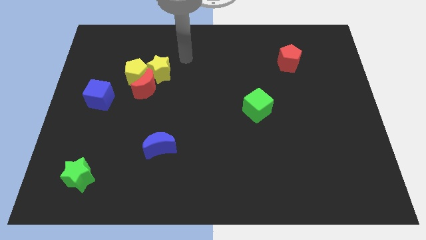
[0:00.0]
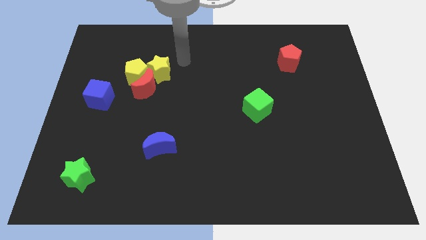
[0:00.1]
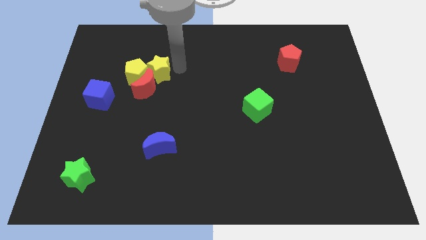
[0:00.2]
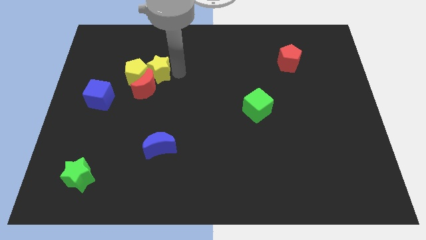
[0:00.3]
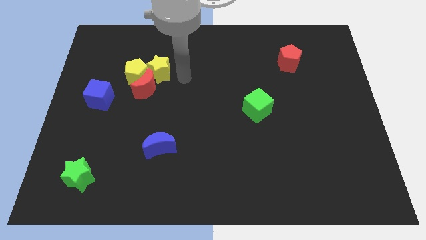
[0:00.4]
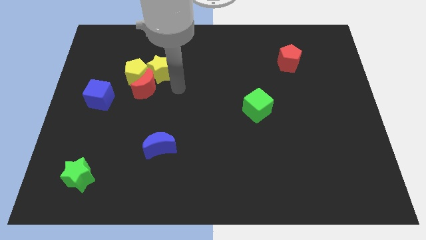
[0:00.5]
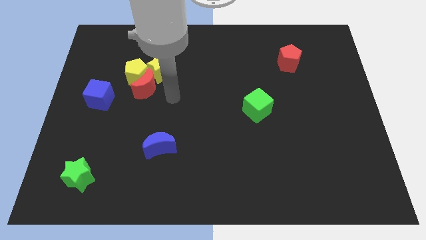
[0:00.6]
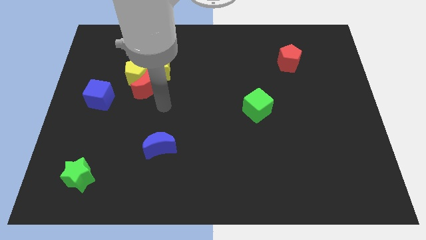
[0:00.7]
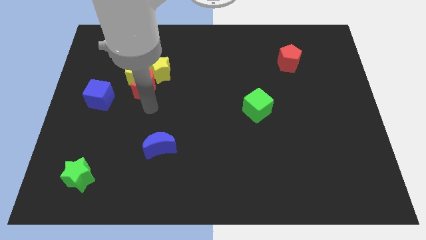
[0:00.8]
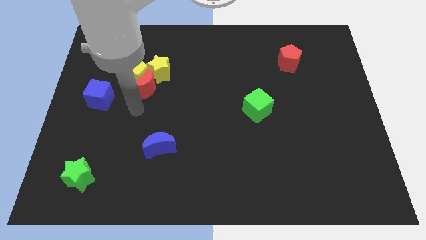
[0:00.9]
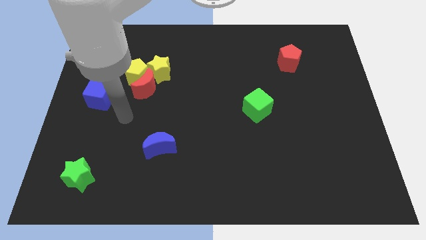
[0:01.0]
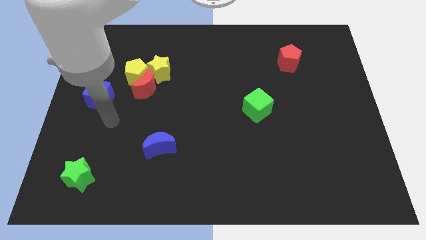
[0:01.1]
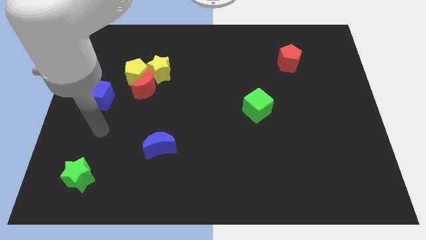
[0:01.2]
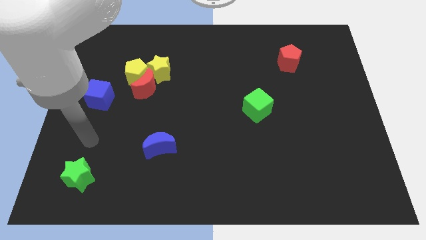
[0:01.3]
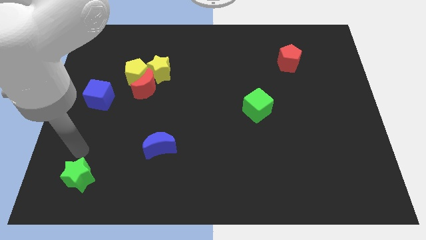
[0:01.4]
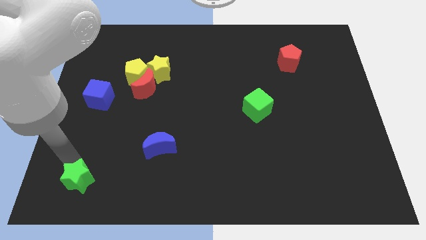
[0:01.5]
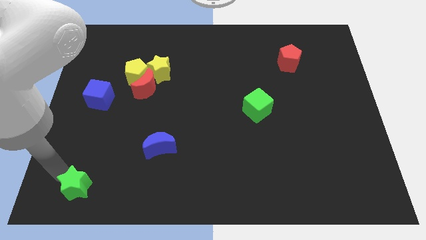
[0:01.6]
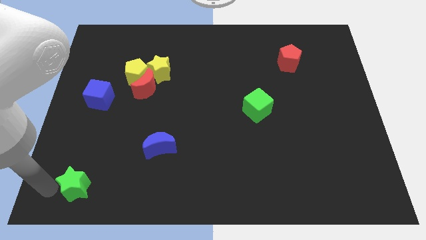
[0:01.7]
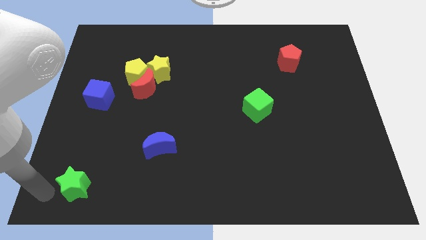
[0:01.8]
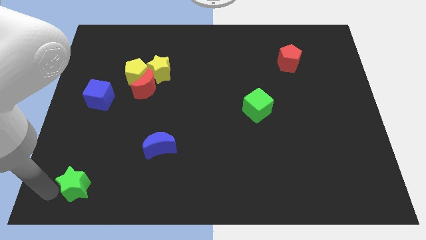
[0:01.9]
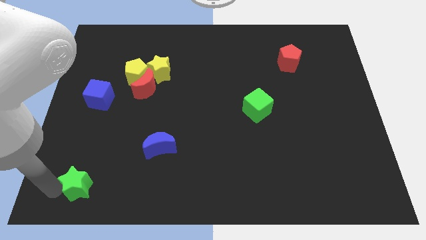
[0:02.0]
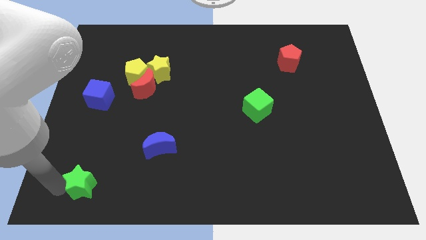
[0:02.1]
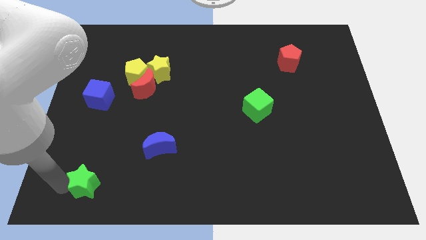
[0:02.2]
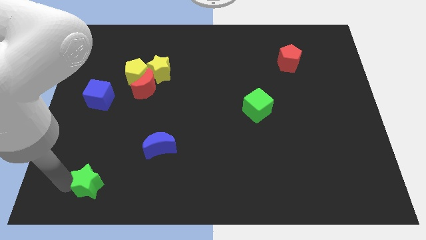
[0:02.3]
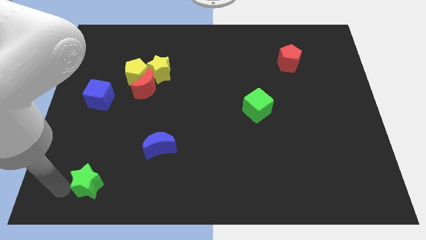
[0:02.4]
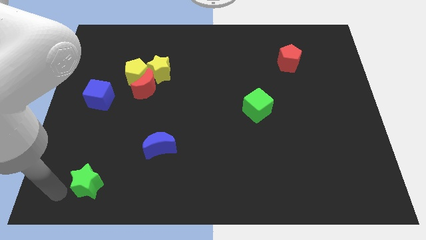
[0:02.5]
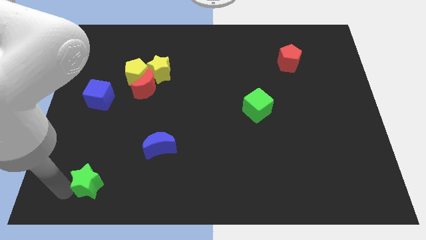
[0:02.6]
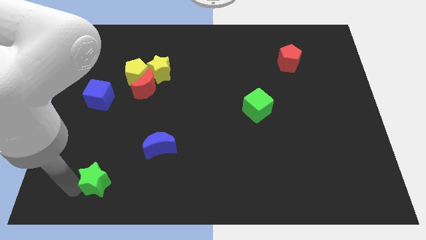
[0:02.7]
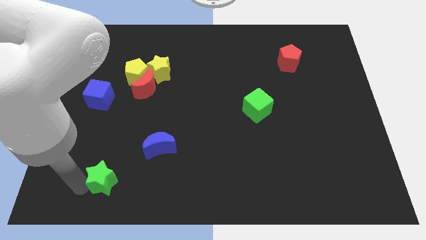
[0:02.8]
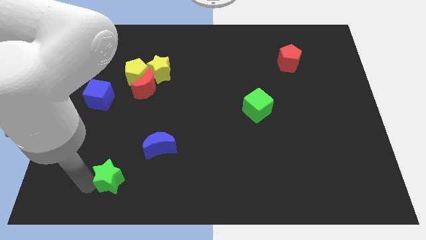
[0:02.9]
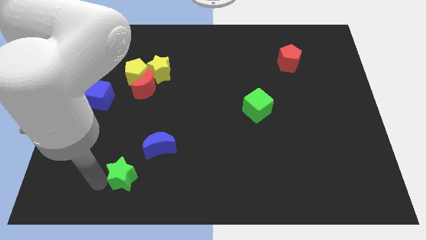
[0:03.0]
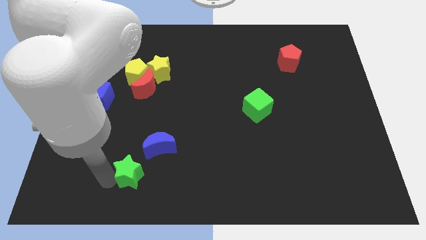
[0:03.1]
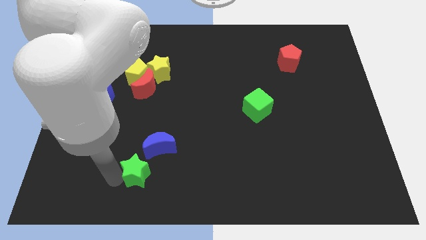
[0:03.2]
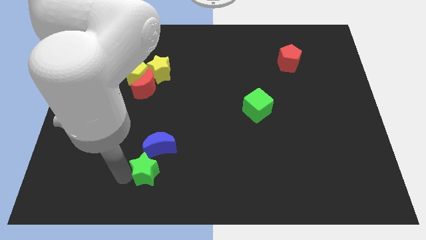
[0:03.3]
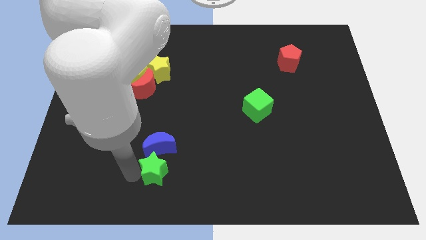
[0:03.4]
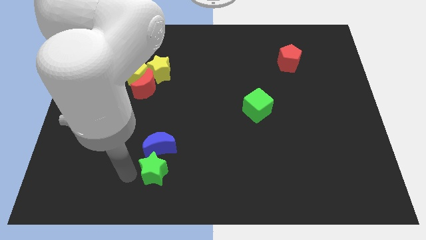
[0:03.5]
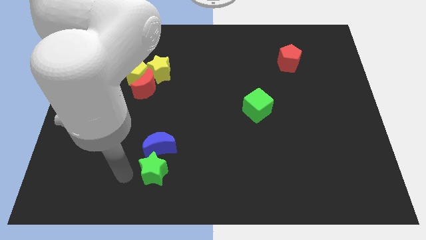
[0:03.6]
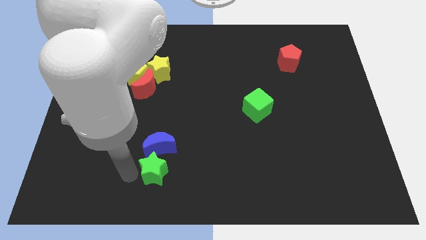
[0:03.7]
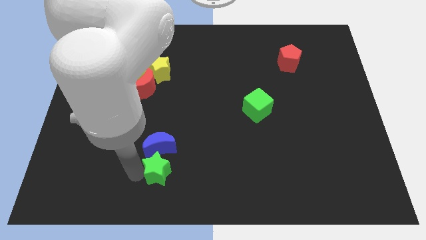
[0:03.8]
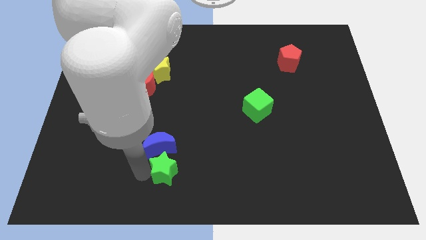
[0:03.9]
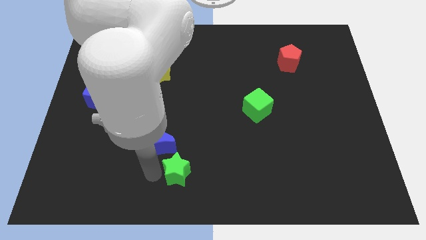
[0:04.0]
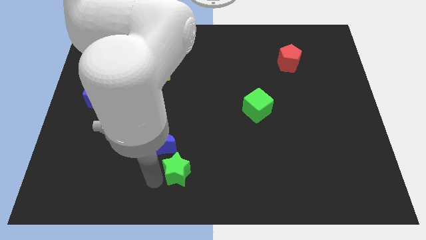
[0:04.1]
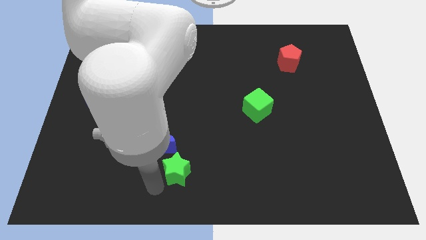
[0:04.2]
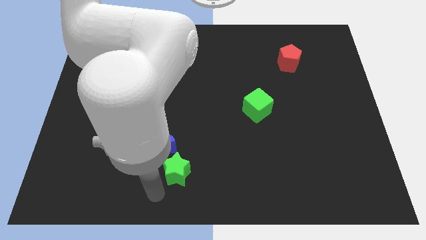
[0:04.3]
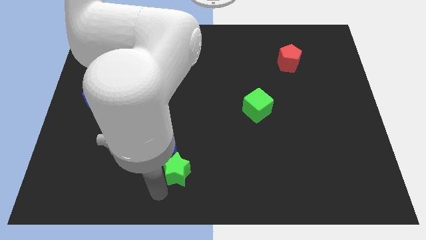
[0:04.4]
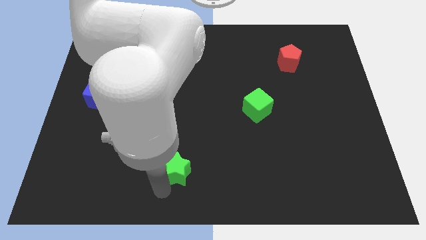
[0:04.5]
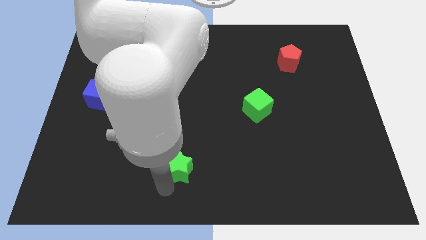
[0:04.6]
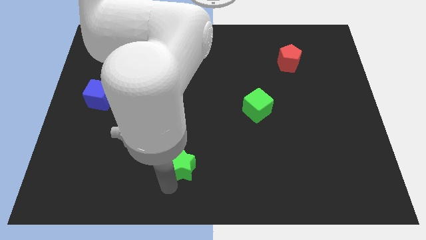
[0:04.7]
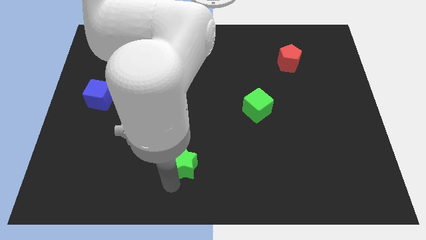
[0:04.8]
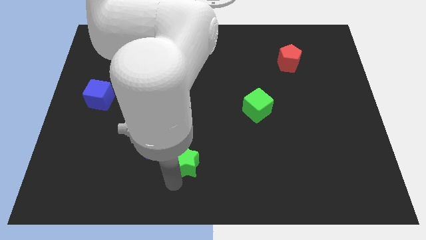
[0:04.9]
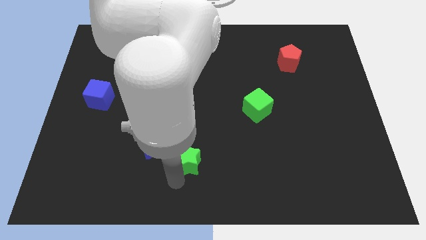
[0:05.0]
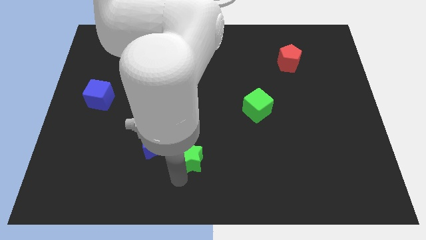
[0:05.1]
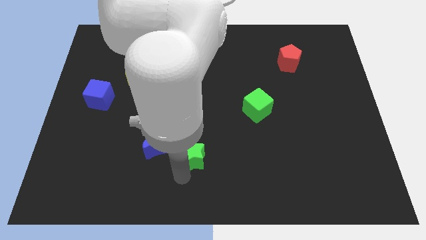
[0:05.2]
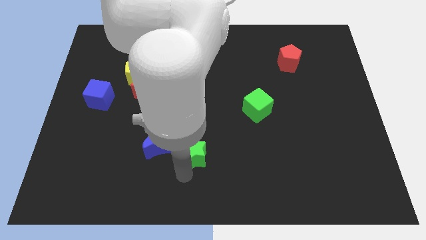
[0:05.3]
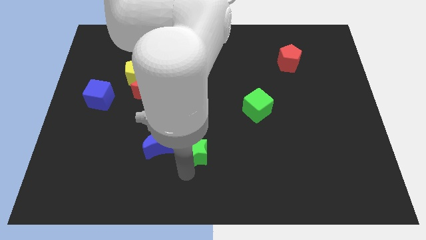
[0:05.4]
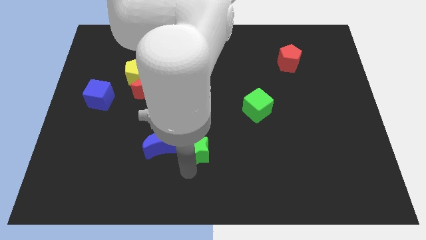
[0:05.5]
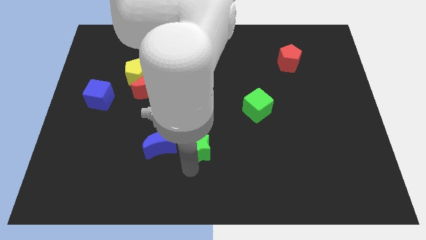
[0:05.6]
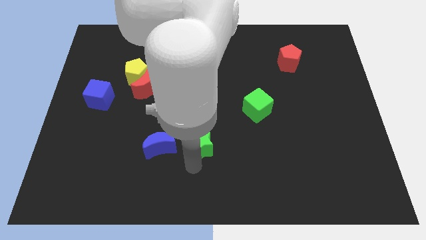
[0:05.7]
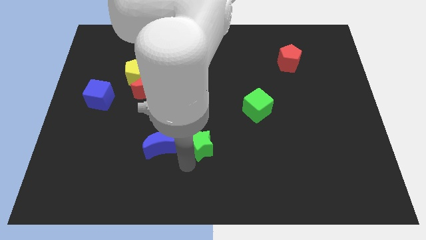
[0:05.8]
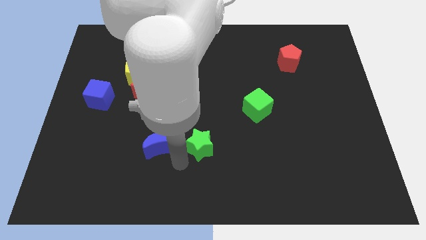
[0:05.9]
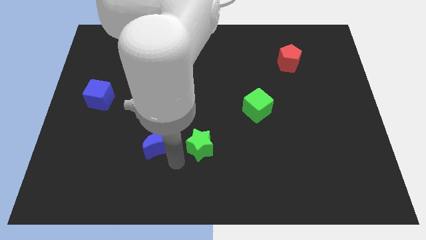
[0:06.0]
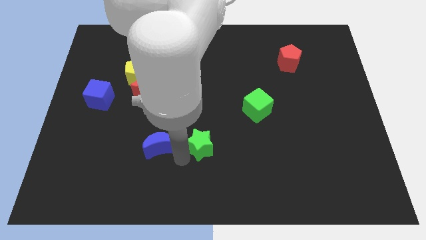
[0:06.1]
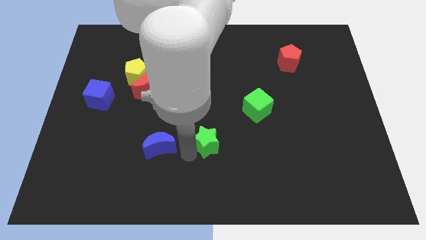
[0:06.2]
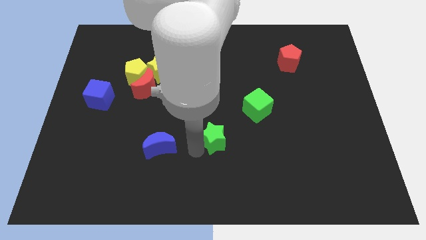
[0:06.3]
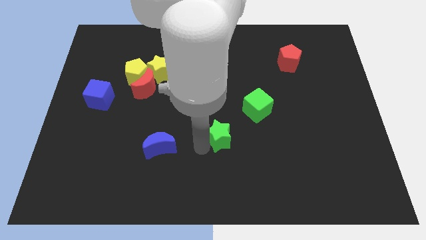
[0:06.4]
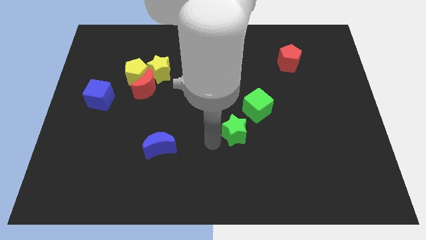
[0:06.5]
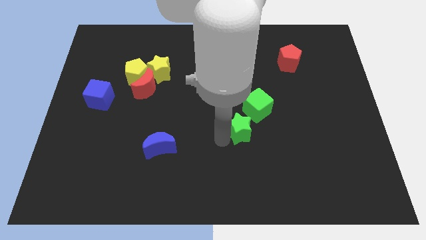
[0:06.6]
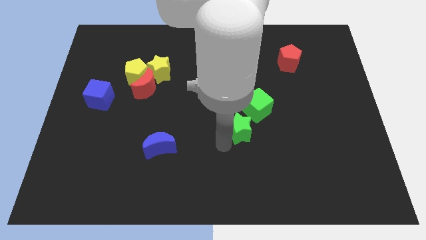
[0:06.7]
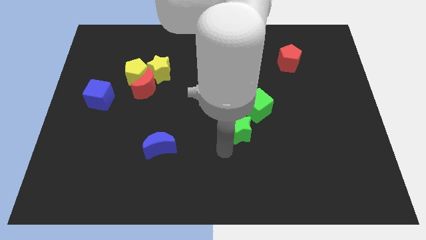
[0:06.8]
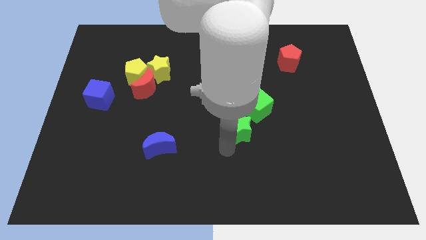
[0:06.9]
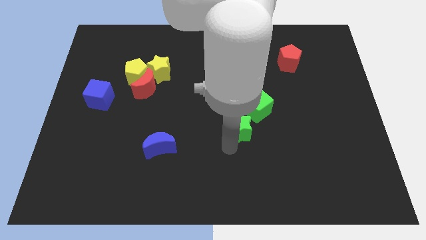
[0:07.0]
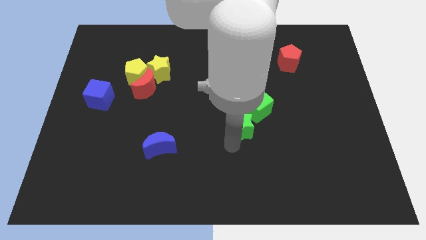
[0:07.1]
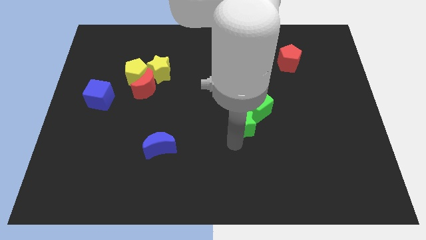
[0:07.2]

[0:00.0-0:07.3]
slide the green star to the green cube
